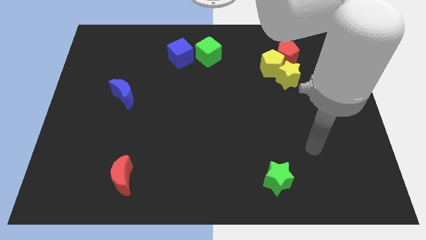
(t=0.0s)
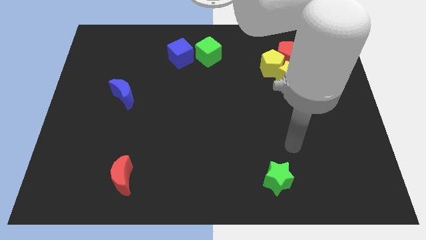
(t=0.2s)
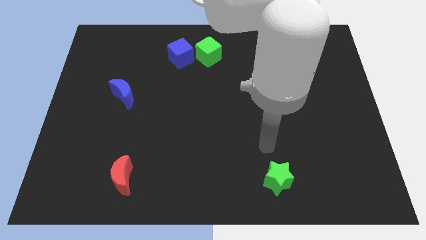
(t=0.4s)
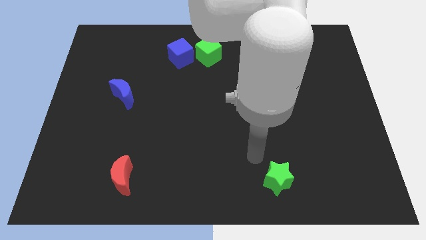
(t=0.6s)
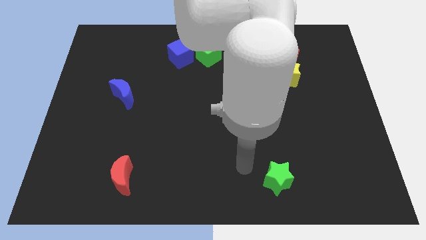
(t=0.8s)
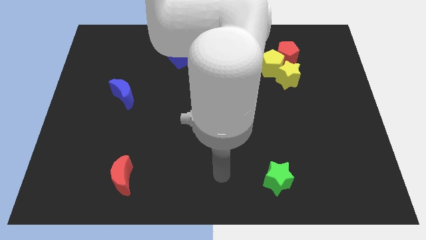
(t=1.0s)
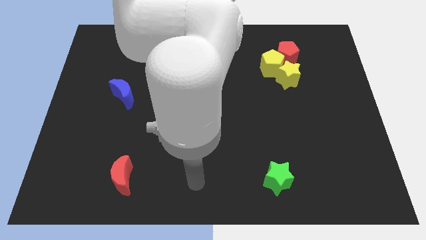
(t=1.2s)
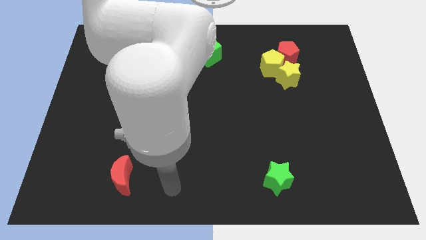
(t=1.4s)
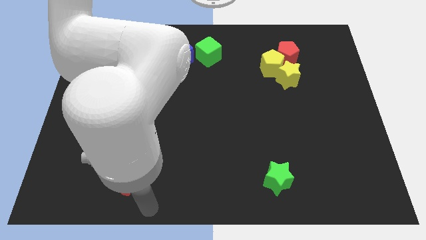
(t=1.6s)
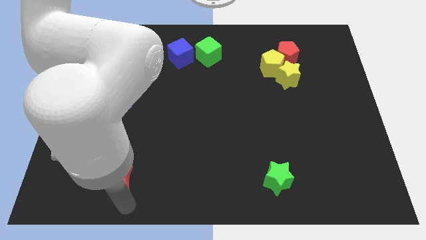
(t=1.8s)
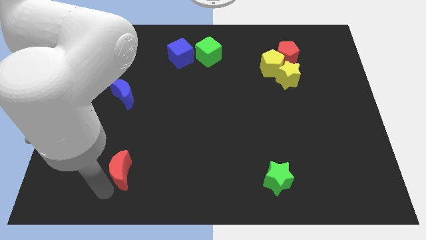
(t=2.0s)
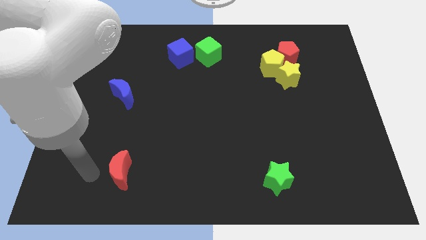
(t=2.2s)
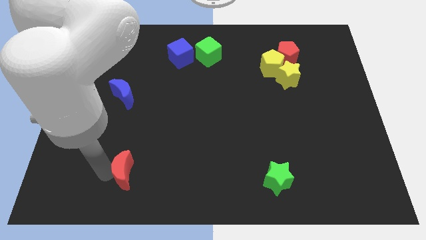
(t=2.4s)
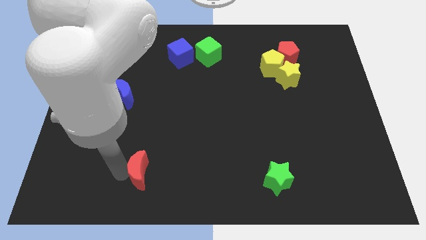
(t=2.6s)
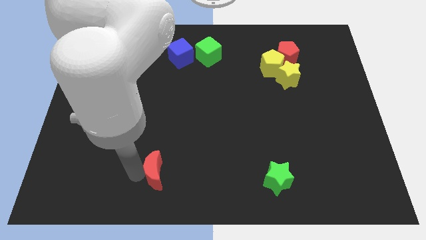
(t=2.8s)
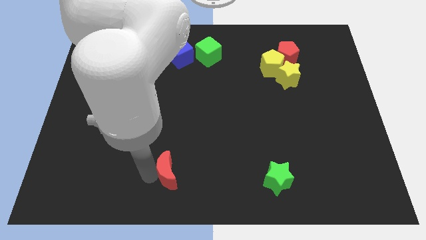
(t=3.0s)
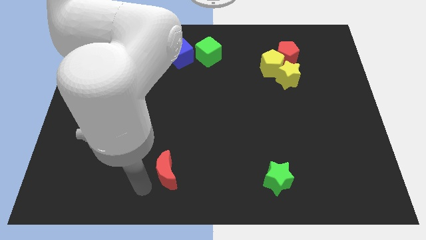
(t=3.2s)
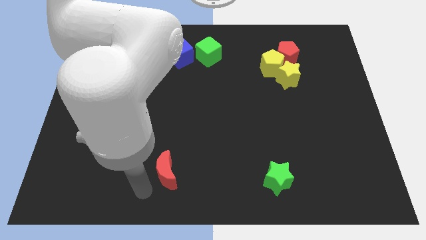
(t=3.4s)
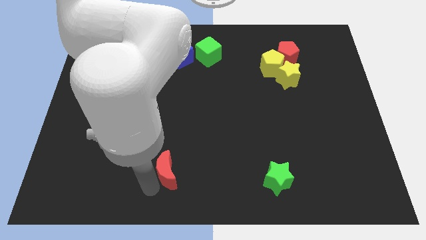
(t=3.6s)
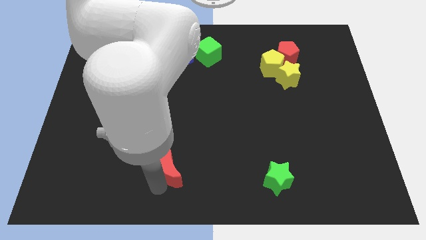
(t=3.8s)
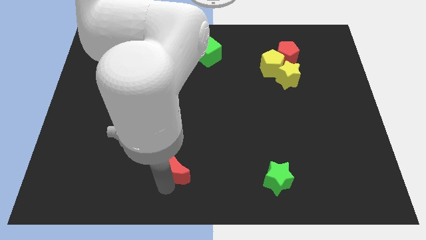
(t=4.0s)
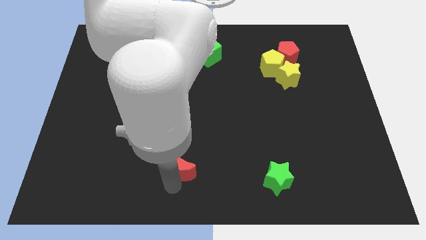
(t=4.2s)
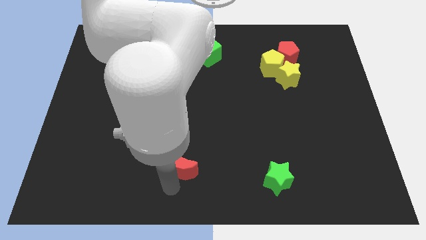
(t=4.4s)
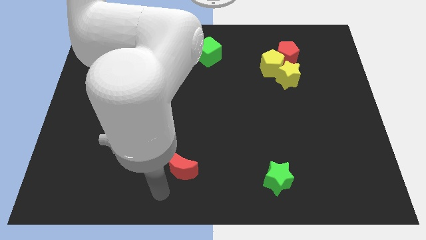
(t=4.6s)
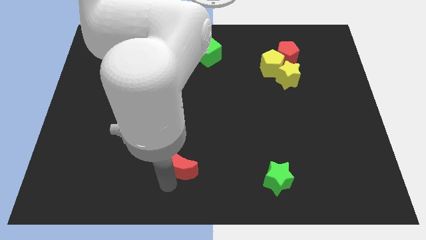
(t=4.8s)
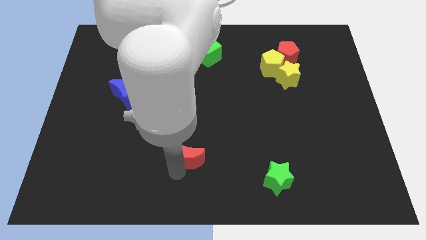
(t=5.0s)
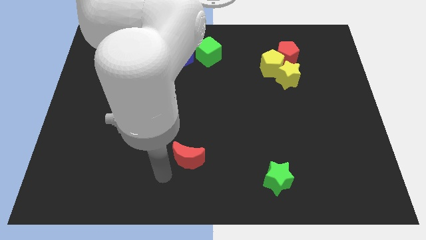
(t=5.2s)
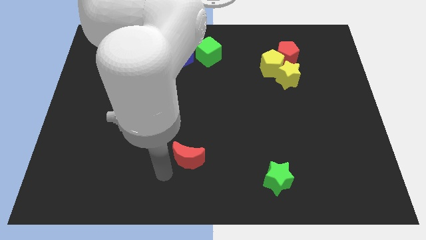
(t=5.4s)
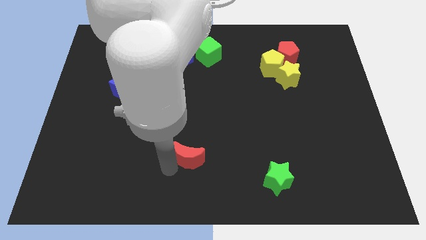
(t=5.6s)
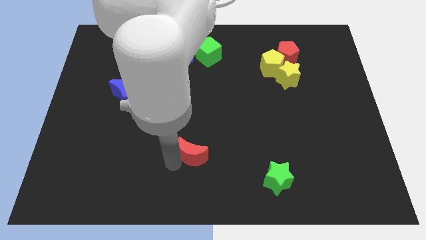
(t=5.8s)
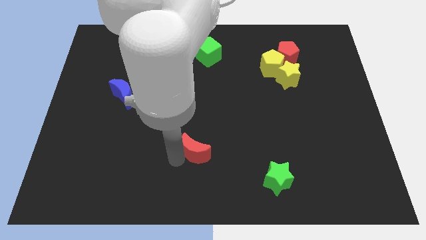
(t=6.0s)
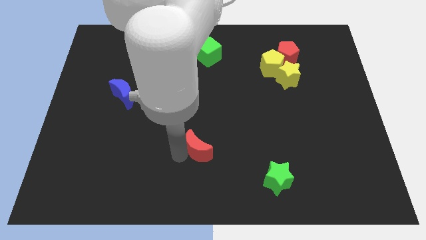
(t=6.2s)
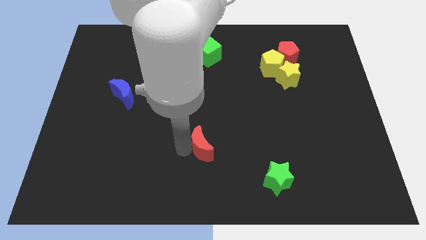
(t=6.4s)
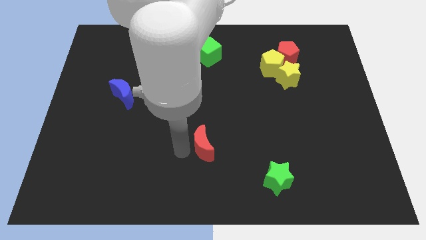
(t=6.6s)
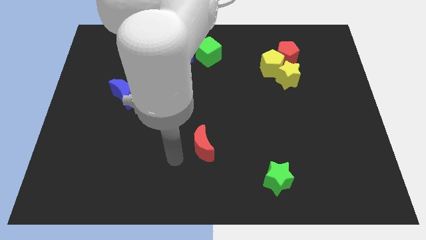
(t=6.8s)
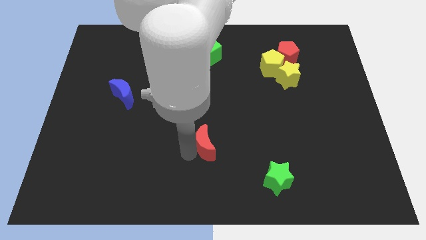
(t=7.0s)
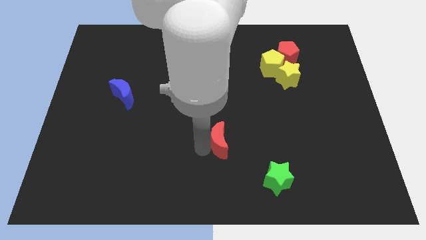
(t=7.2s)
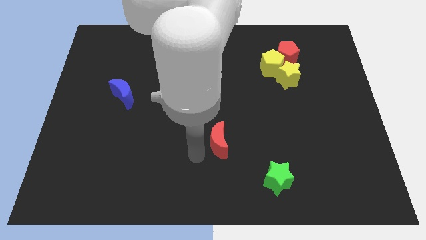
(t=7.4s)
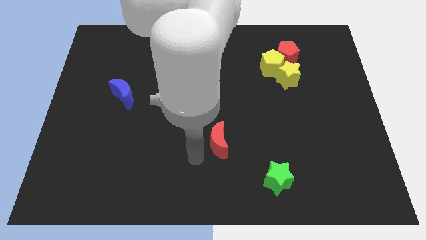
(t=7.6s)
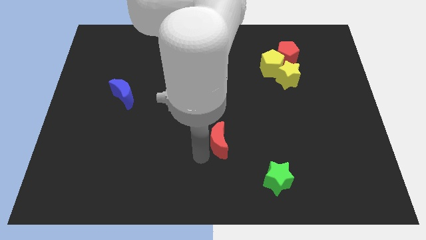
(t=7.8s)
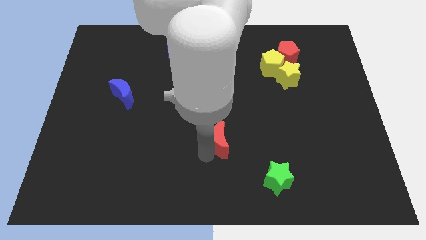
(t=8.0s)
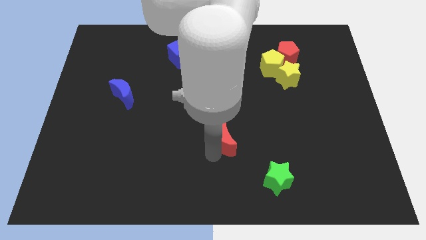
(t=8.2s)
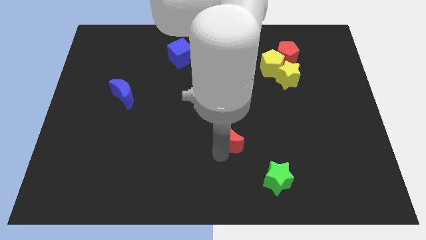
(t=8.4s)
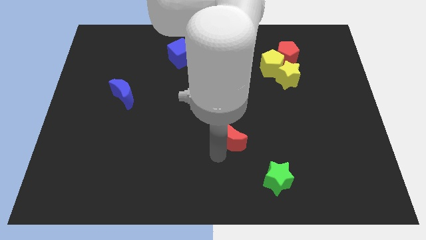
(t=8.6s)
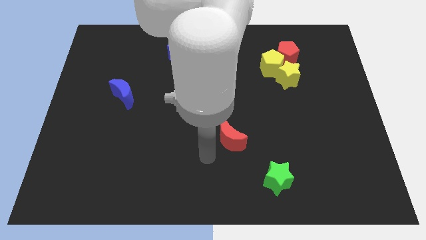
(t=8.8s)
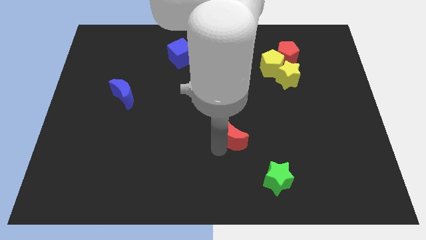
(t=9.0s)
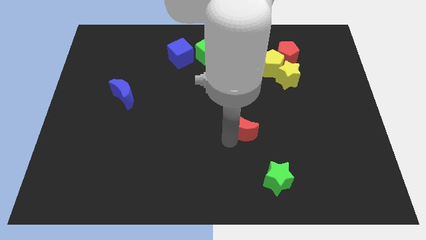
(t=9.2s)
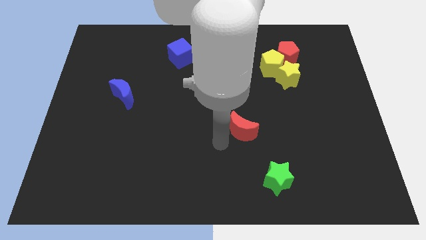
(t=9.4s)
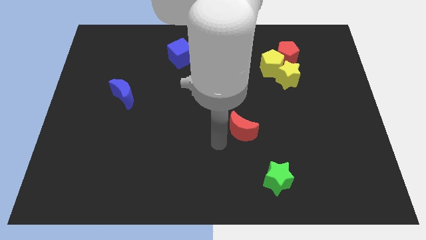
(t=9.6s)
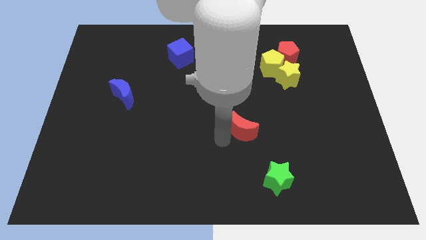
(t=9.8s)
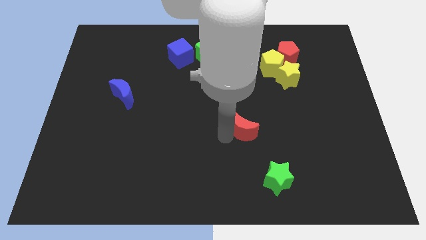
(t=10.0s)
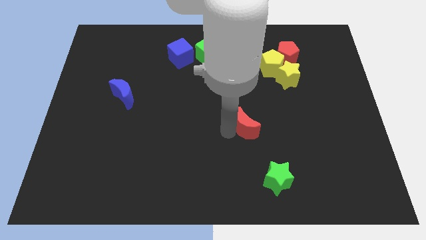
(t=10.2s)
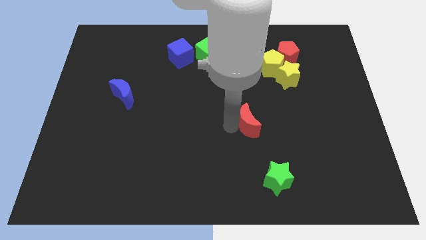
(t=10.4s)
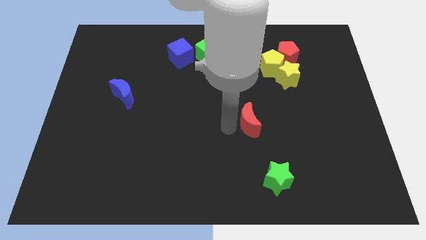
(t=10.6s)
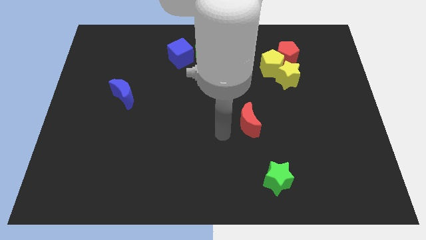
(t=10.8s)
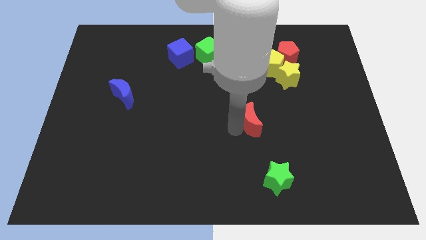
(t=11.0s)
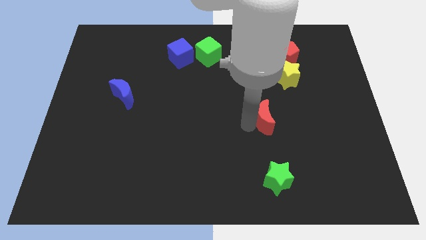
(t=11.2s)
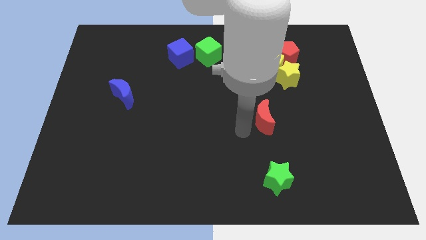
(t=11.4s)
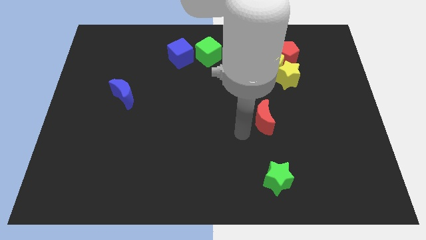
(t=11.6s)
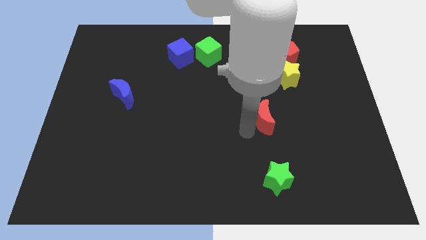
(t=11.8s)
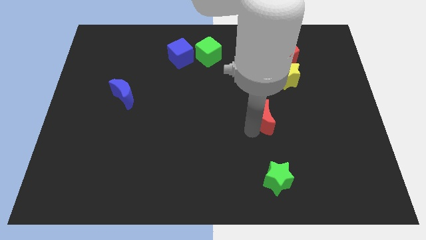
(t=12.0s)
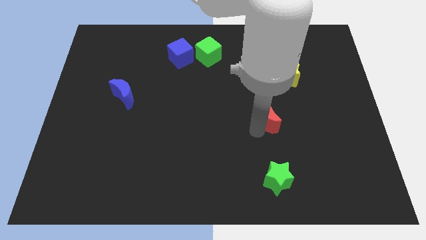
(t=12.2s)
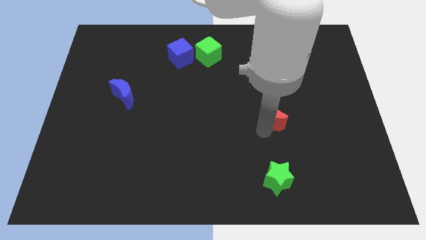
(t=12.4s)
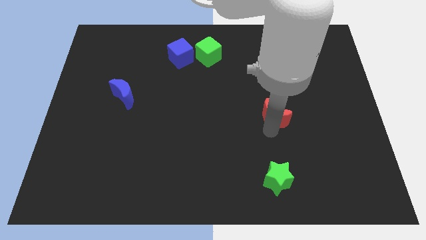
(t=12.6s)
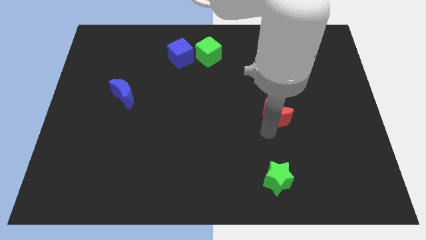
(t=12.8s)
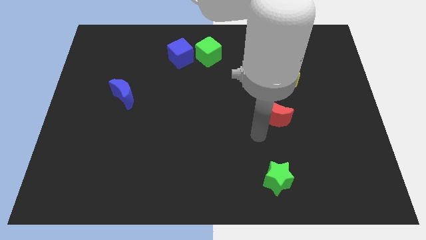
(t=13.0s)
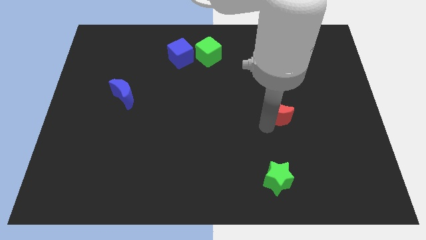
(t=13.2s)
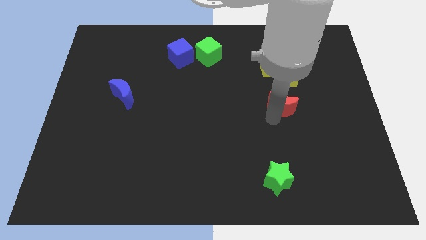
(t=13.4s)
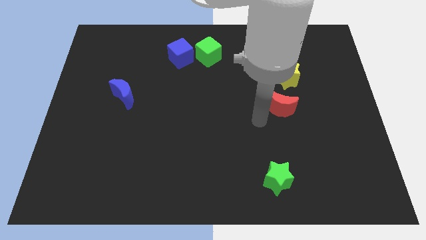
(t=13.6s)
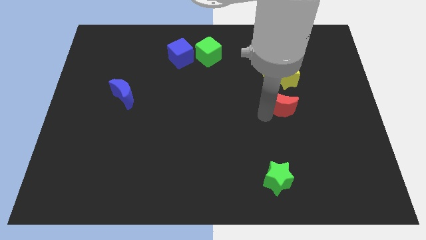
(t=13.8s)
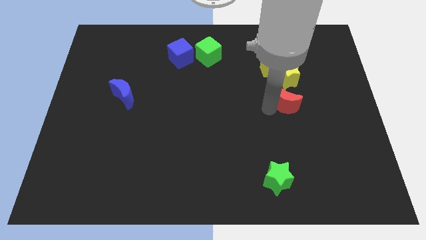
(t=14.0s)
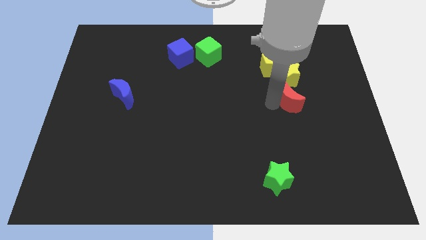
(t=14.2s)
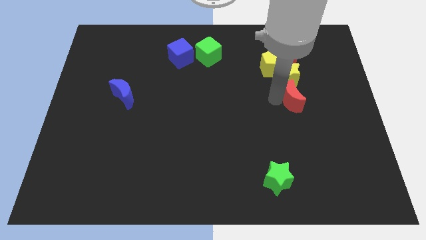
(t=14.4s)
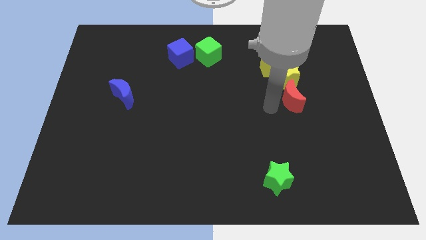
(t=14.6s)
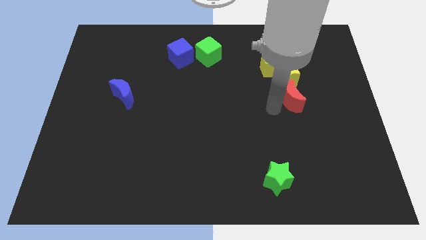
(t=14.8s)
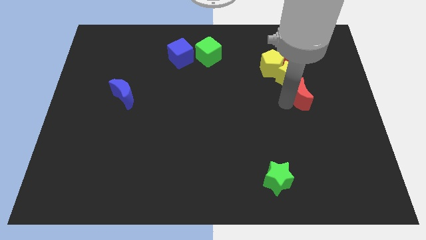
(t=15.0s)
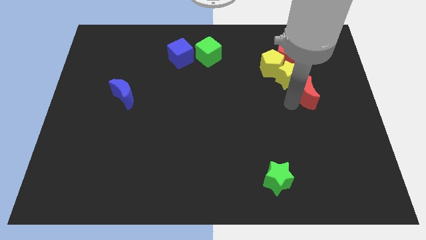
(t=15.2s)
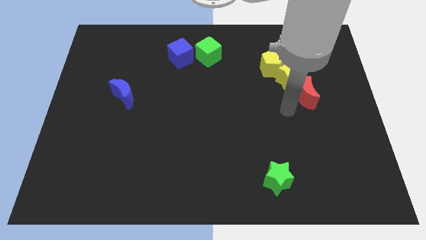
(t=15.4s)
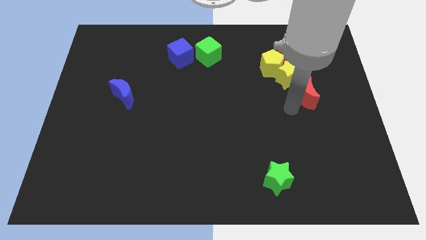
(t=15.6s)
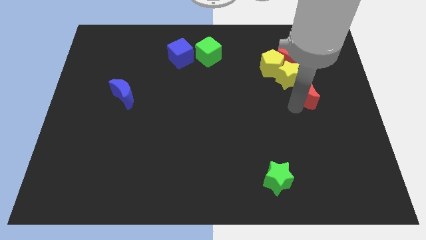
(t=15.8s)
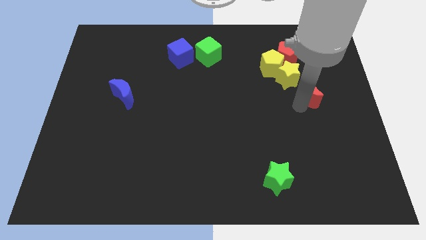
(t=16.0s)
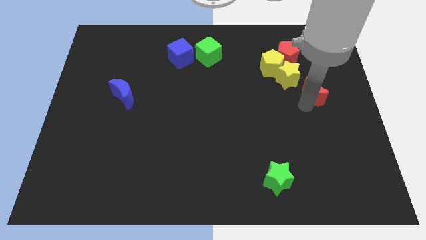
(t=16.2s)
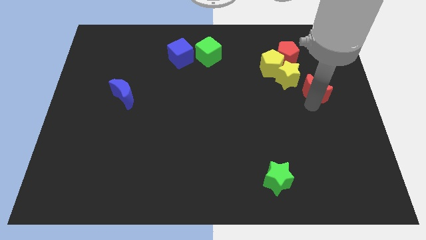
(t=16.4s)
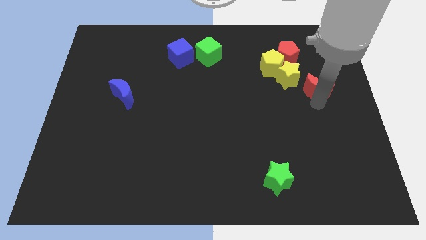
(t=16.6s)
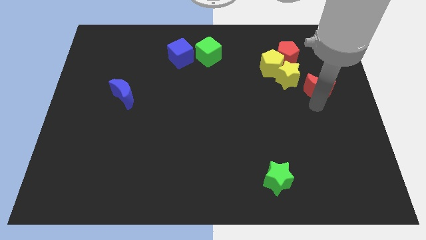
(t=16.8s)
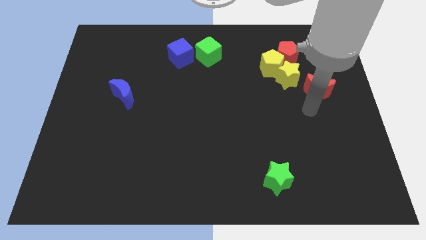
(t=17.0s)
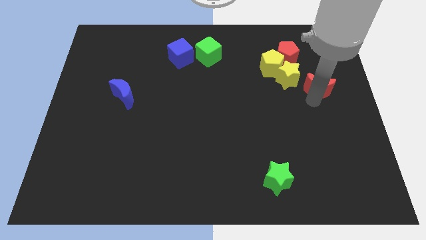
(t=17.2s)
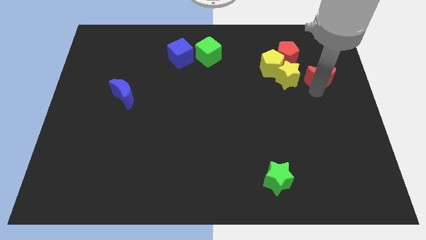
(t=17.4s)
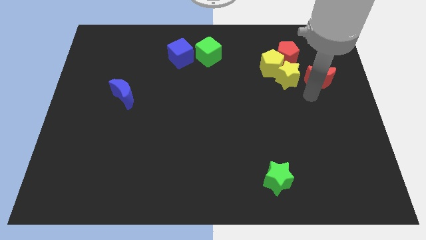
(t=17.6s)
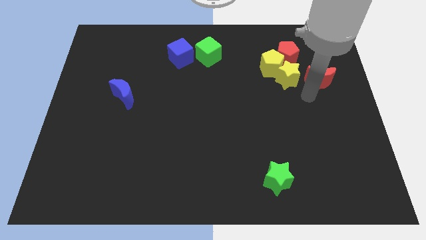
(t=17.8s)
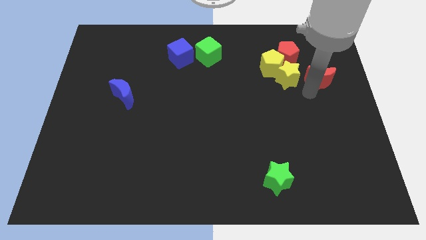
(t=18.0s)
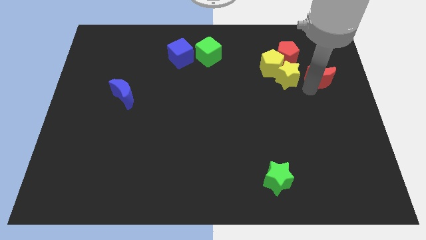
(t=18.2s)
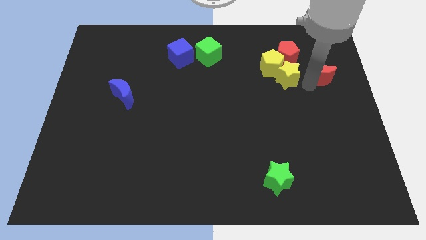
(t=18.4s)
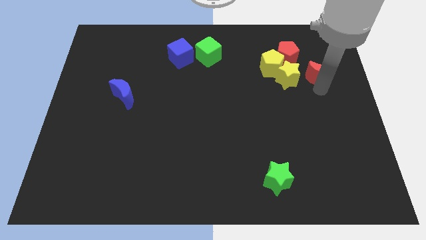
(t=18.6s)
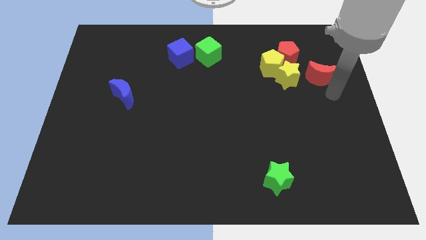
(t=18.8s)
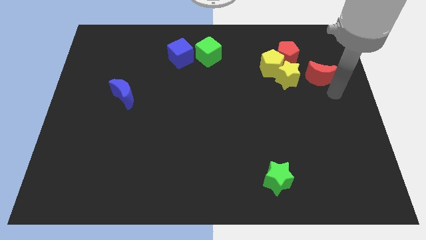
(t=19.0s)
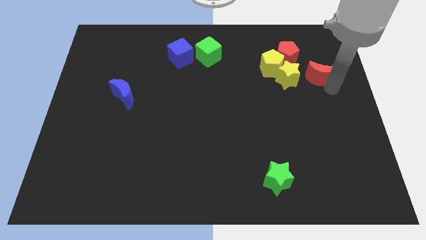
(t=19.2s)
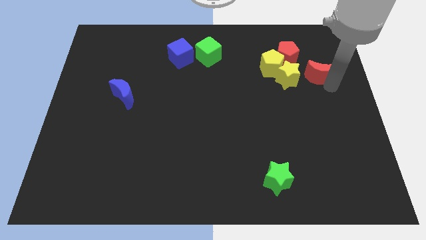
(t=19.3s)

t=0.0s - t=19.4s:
push the red moon to the top right side of the yellow star
